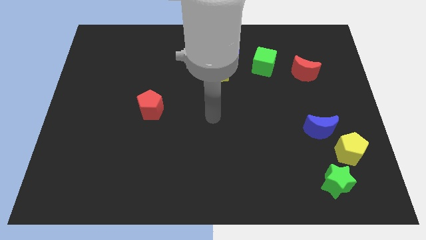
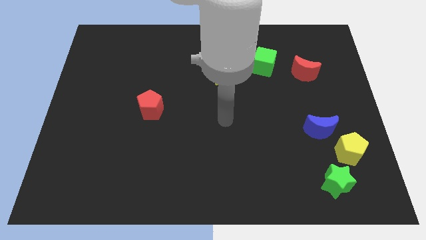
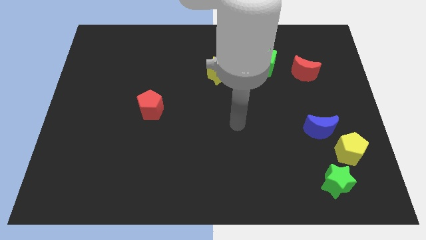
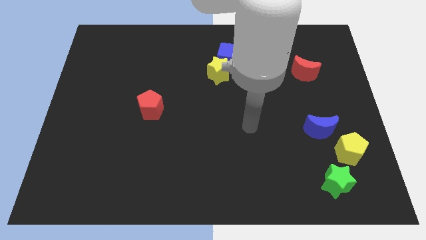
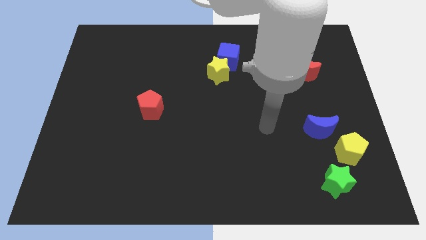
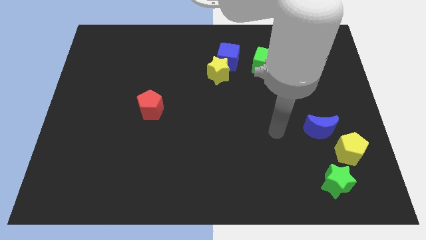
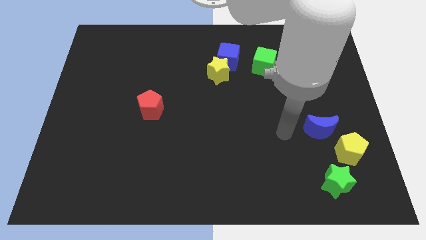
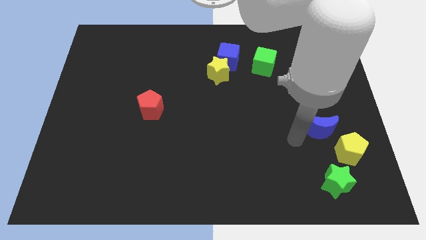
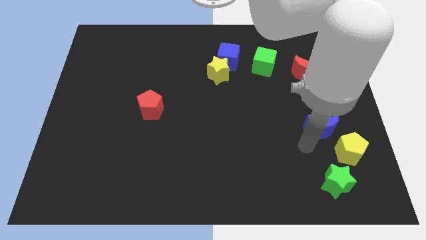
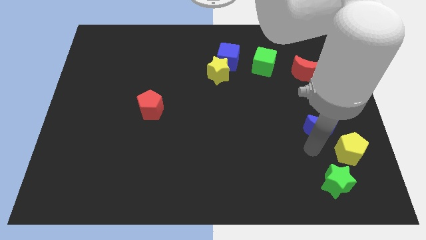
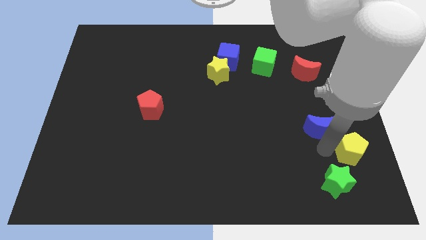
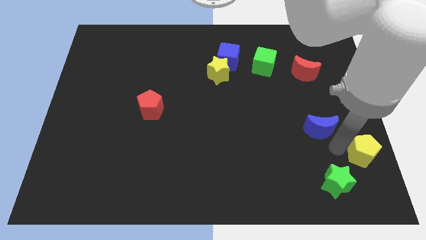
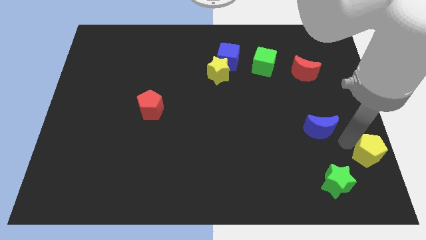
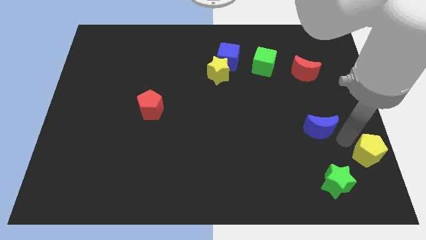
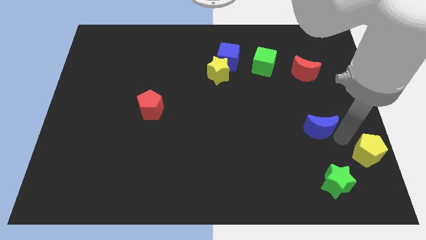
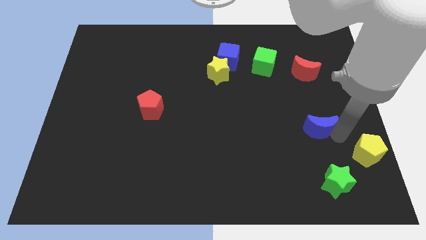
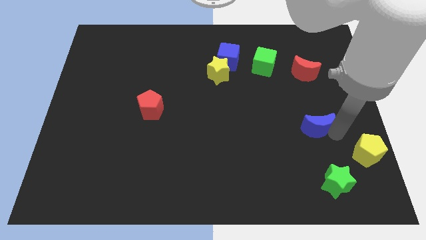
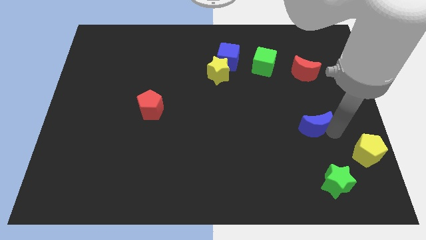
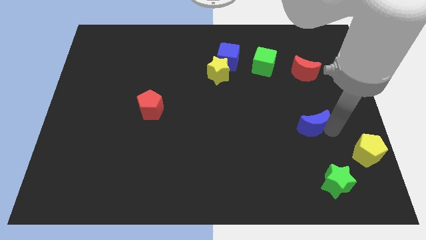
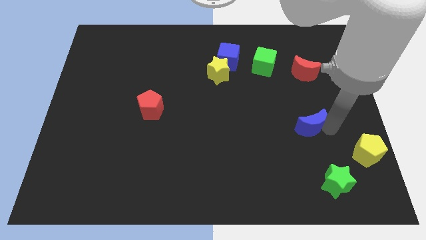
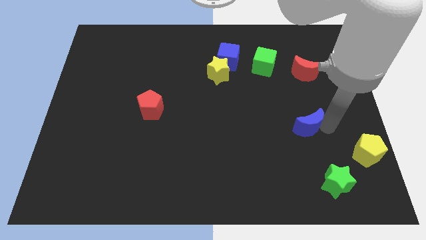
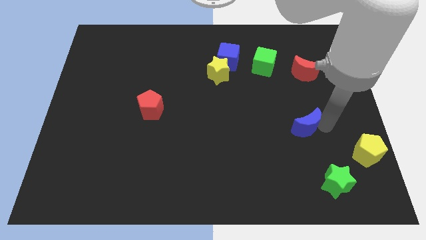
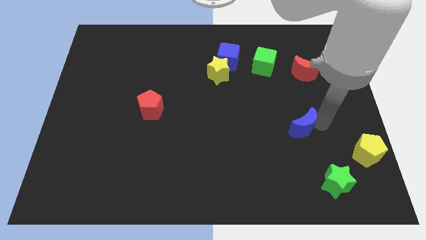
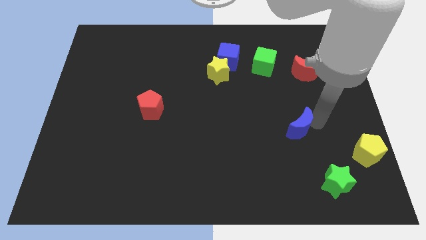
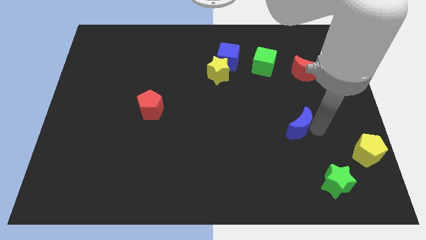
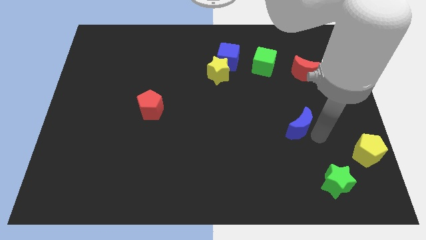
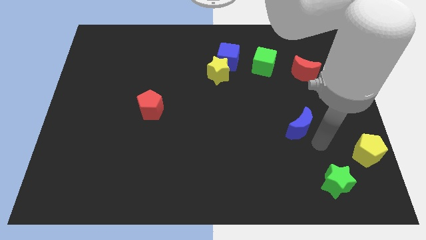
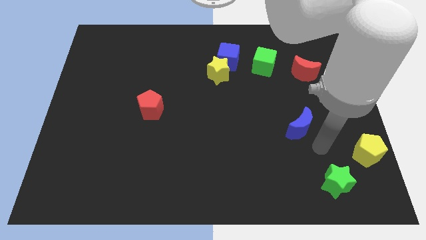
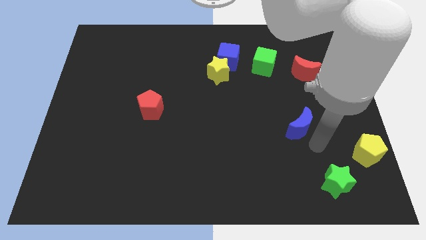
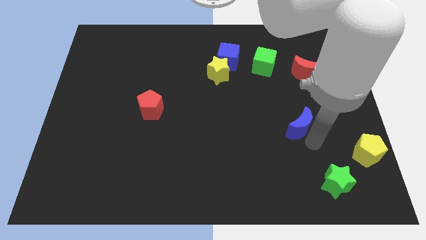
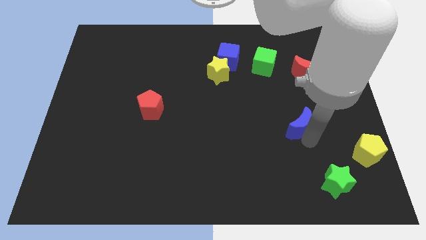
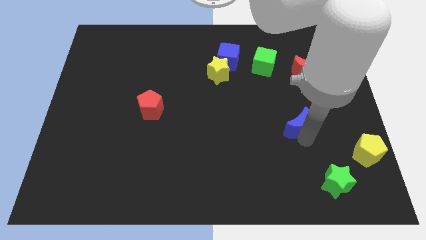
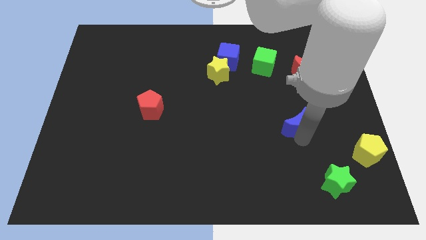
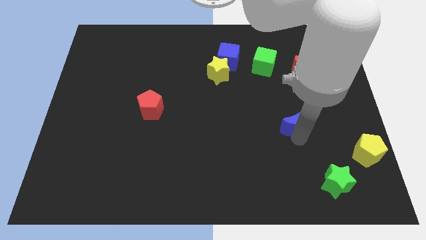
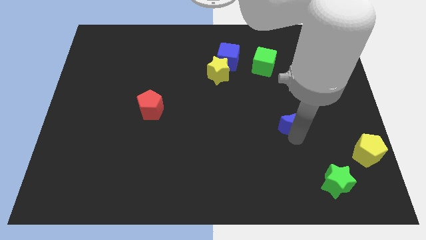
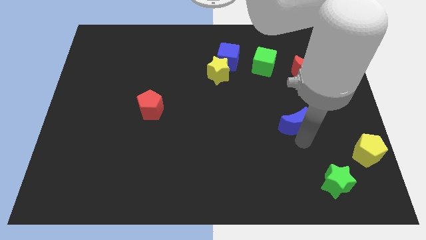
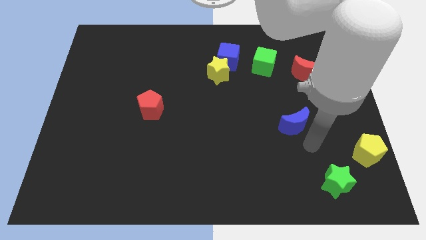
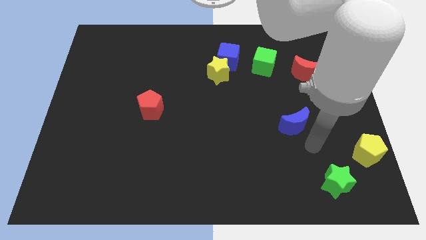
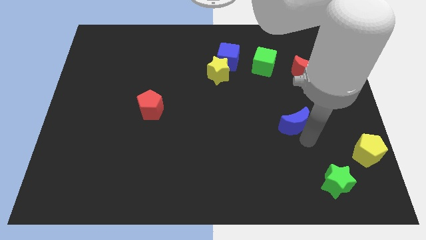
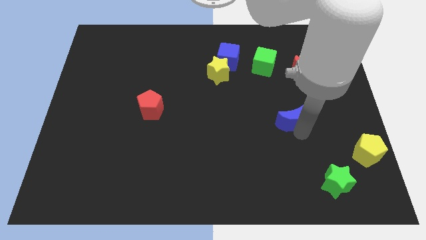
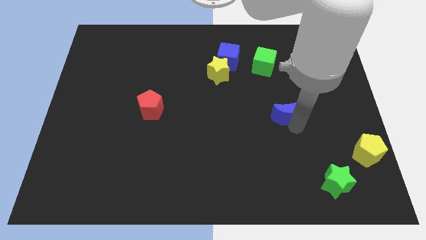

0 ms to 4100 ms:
push the blue moon upwards and then to the left a little

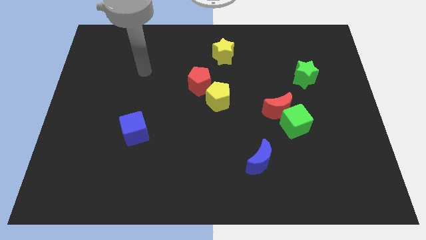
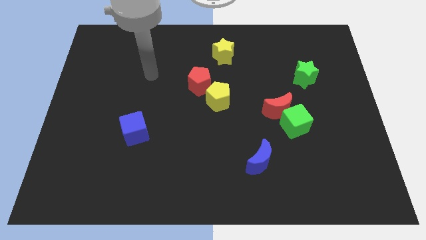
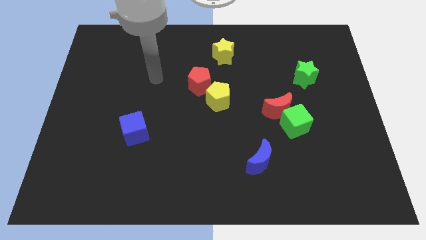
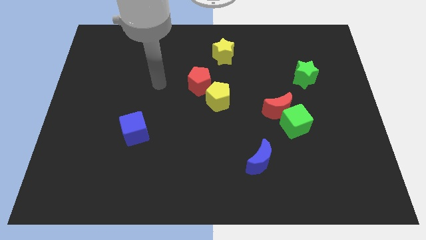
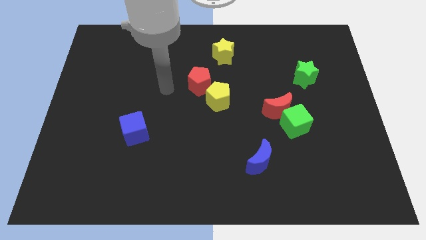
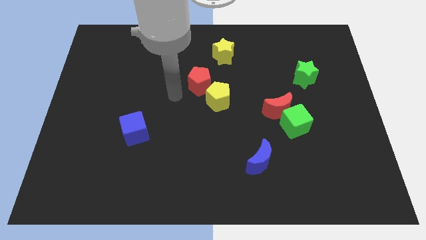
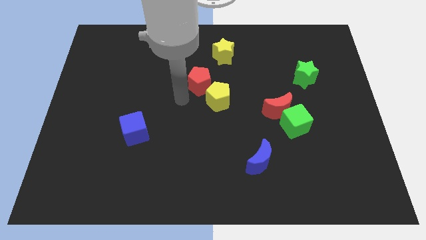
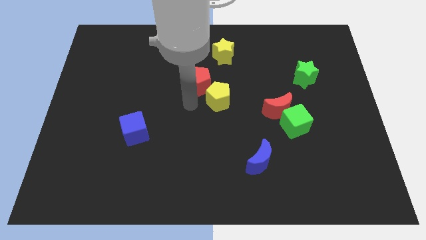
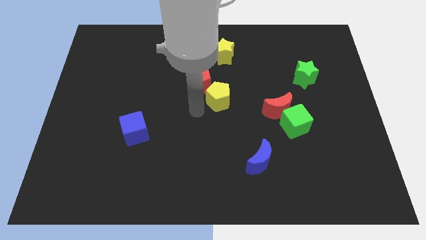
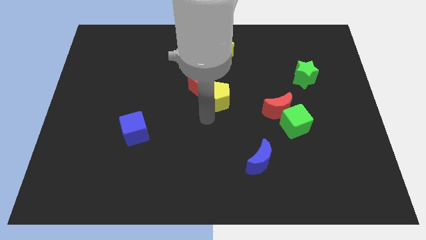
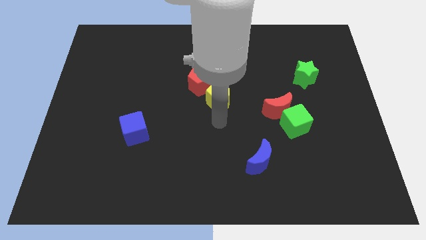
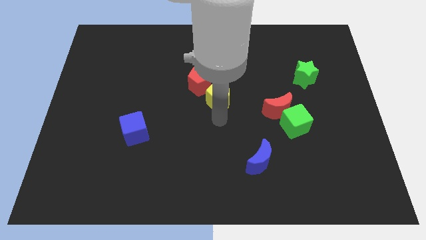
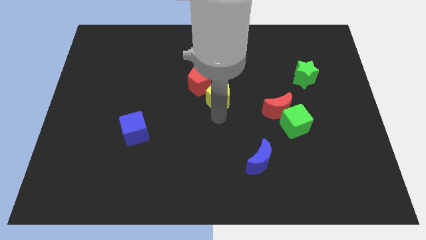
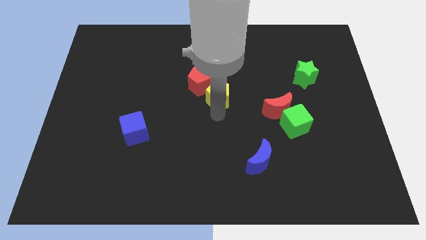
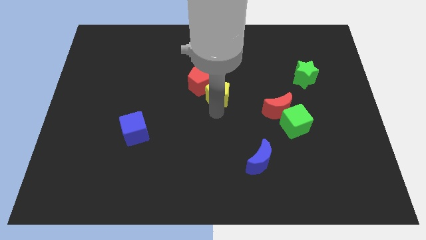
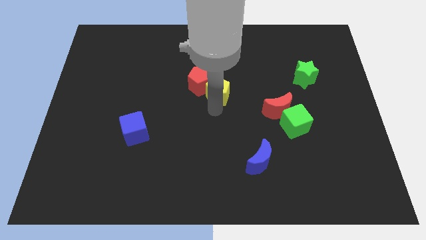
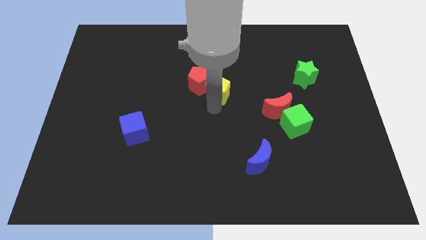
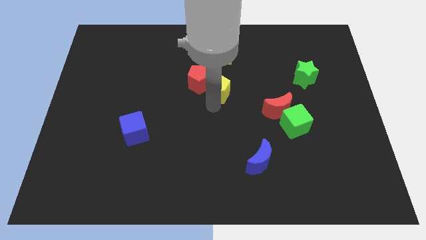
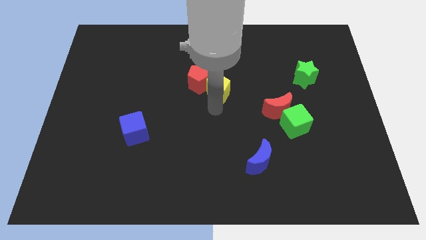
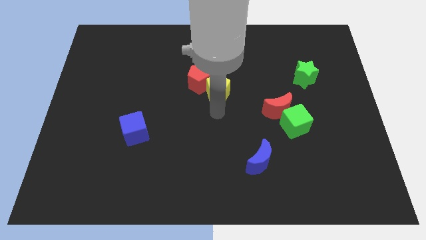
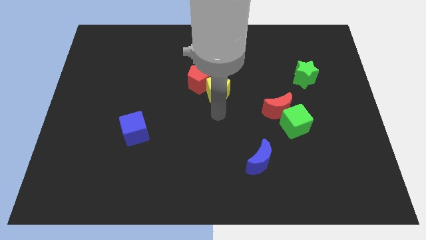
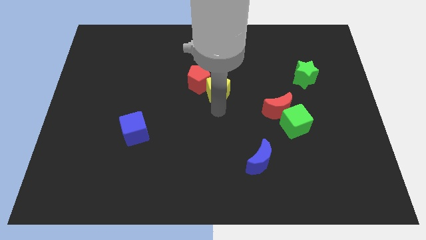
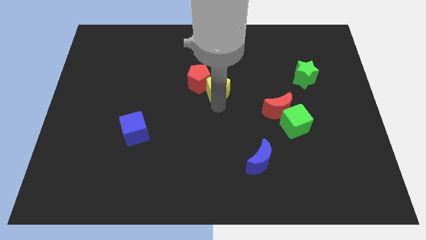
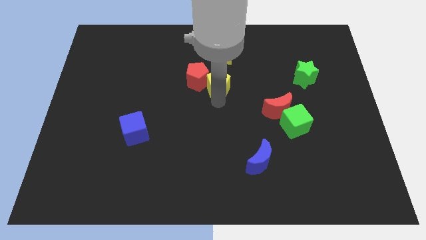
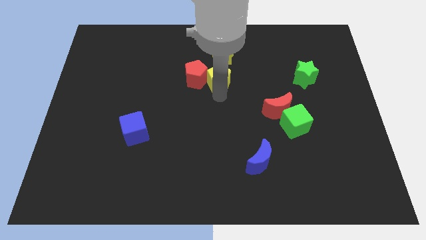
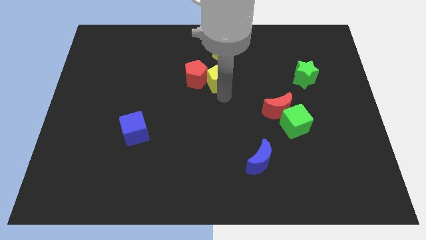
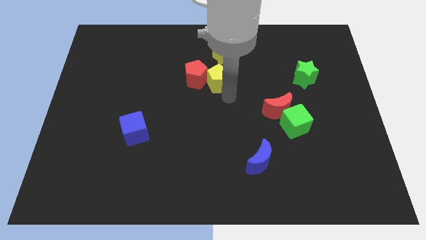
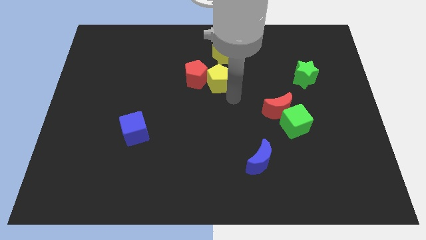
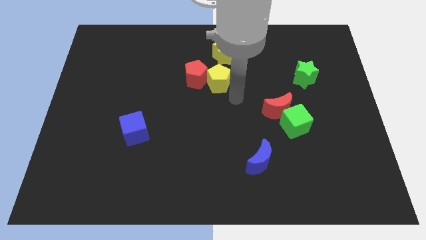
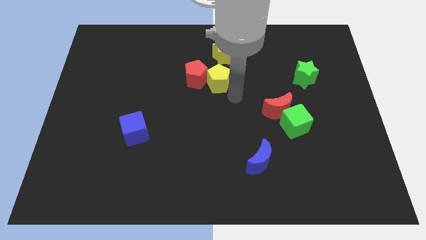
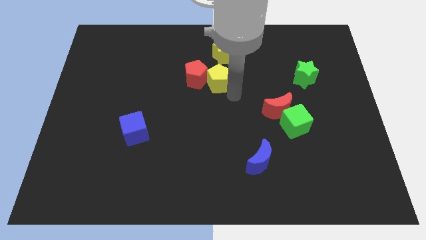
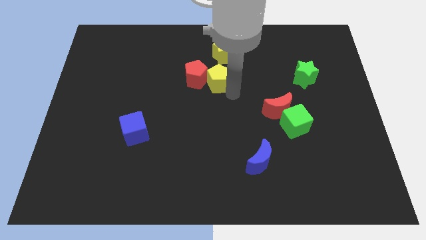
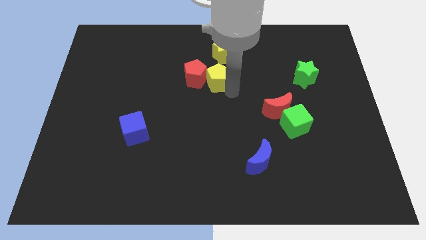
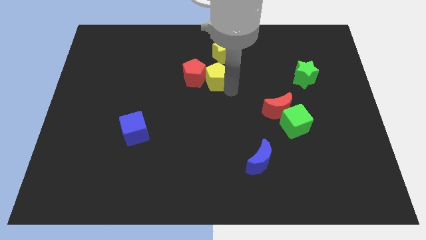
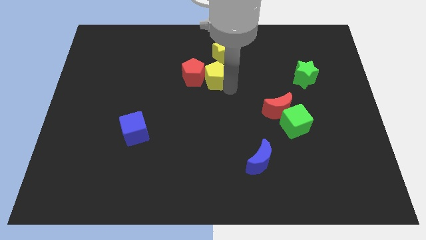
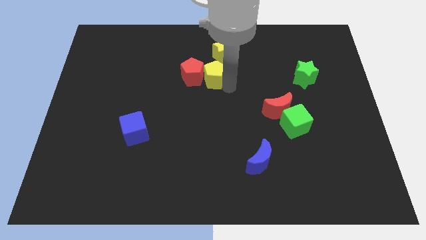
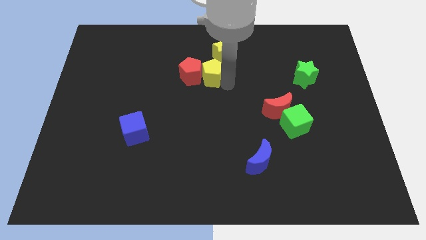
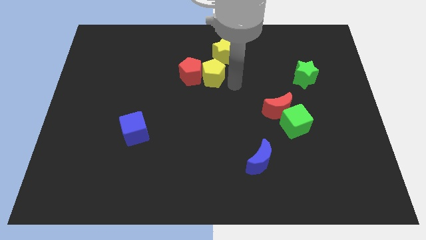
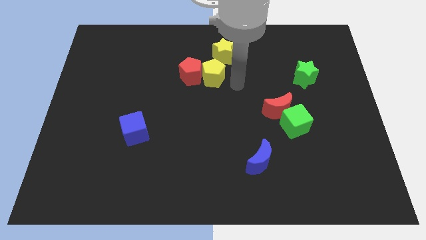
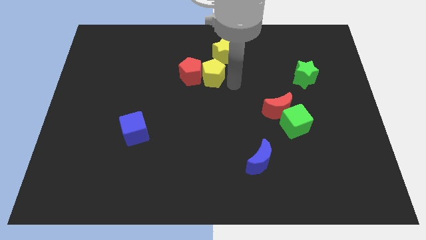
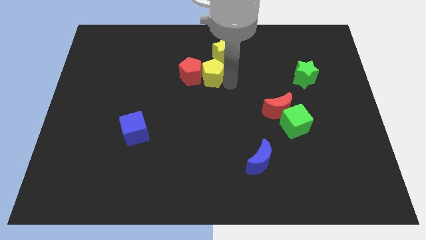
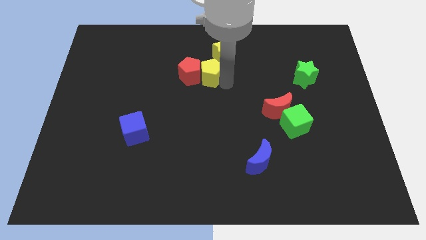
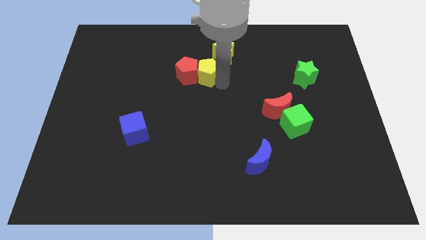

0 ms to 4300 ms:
move the yellow pentagon upwards and to the left diagonally slightly
